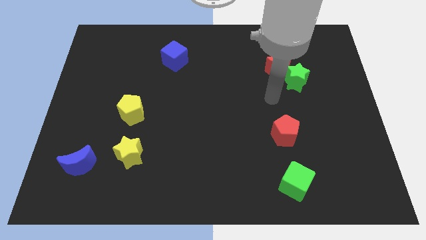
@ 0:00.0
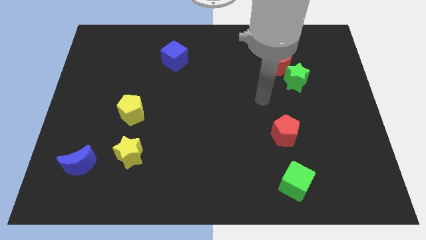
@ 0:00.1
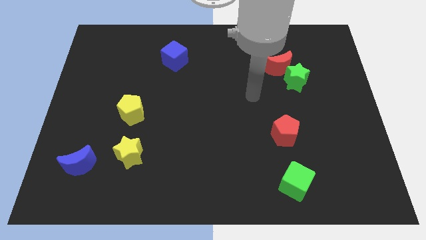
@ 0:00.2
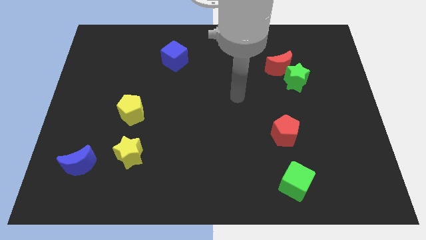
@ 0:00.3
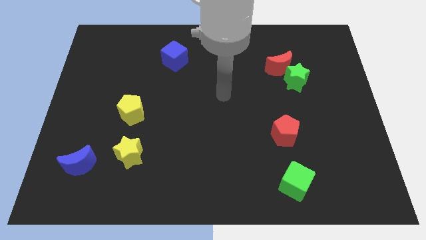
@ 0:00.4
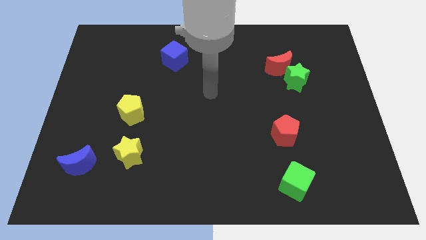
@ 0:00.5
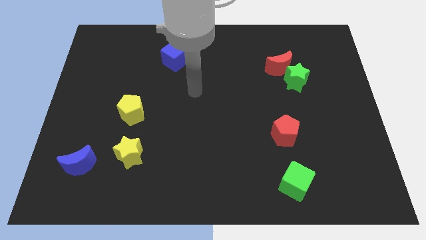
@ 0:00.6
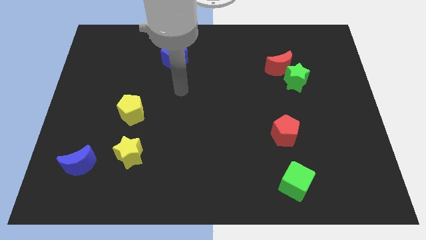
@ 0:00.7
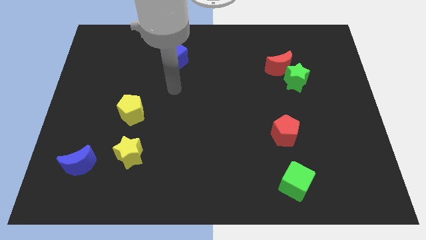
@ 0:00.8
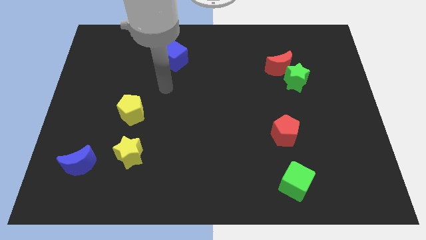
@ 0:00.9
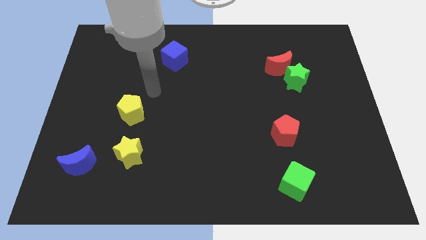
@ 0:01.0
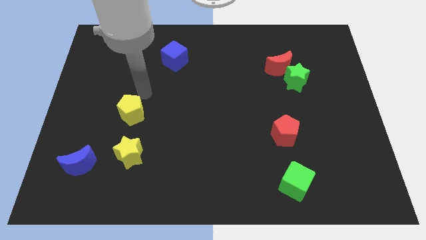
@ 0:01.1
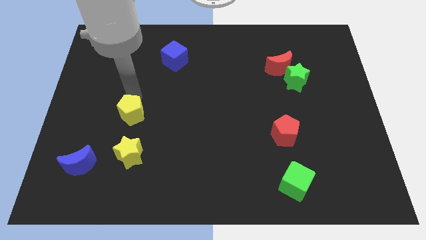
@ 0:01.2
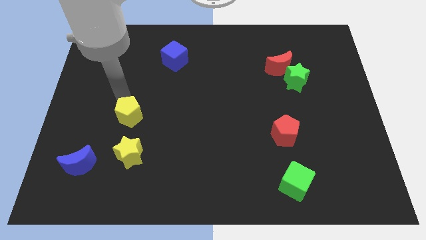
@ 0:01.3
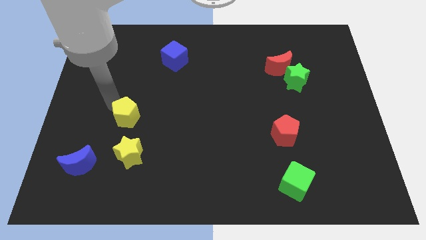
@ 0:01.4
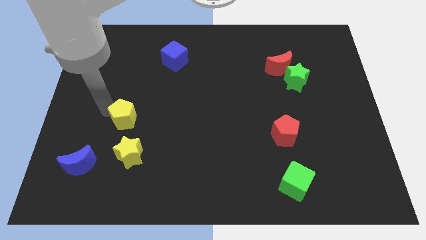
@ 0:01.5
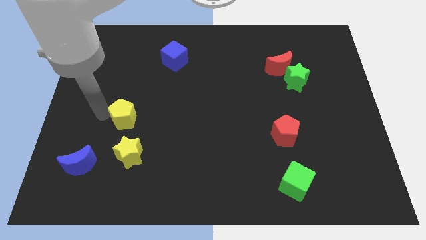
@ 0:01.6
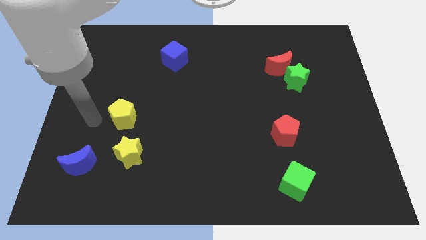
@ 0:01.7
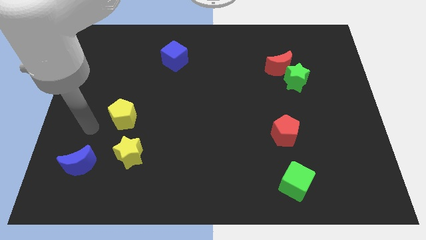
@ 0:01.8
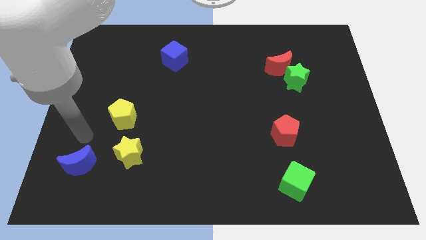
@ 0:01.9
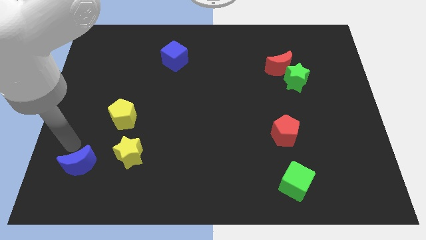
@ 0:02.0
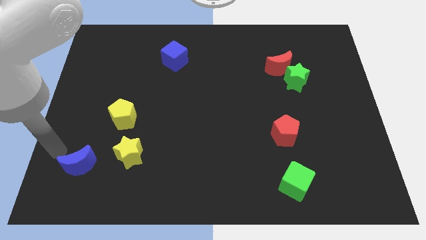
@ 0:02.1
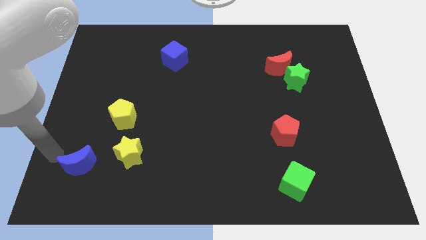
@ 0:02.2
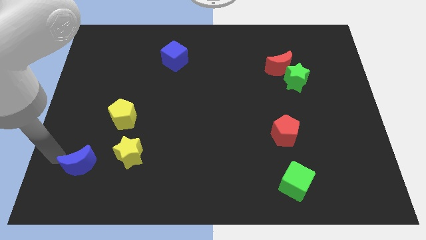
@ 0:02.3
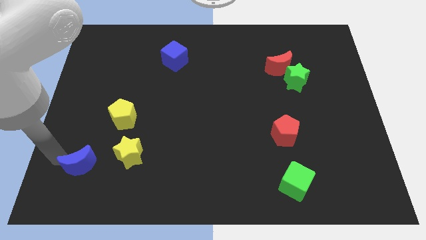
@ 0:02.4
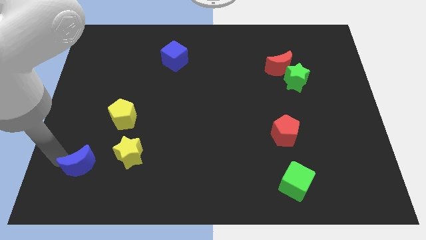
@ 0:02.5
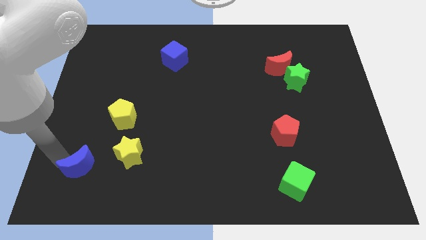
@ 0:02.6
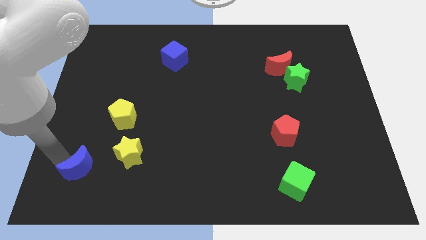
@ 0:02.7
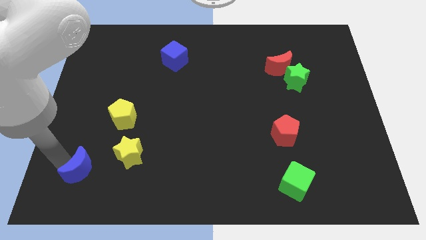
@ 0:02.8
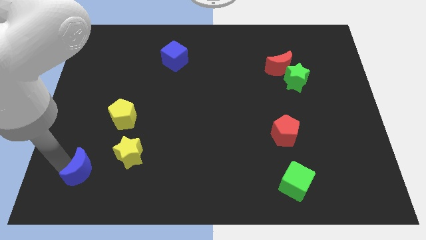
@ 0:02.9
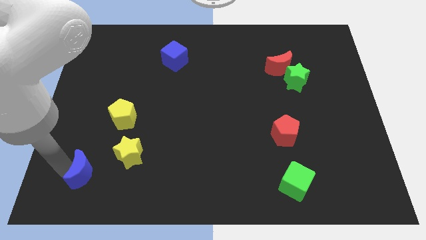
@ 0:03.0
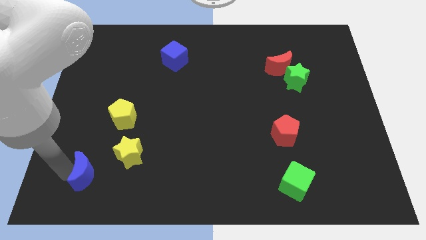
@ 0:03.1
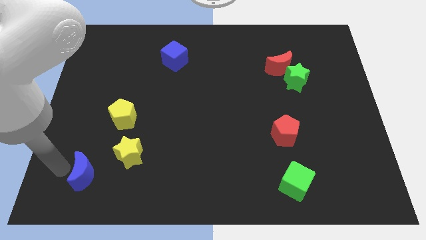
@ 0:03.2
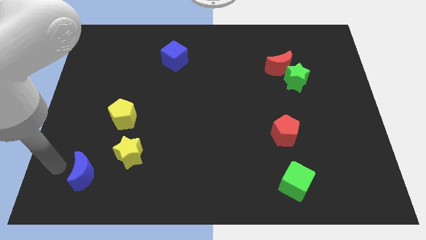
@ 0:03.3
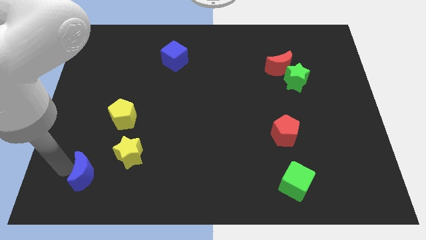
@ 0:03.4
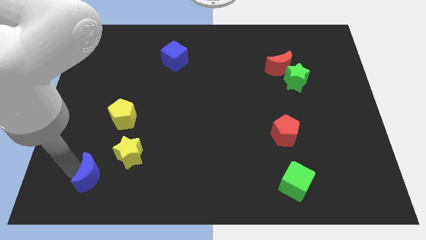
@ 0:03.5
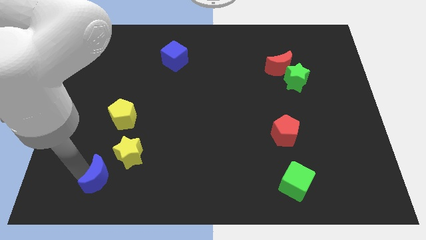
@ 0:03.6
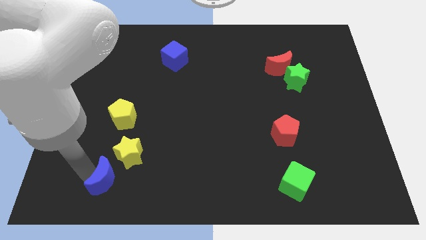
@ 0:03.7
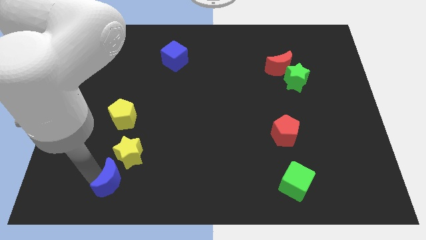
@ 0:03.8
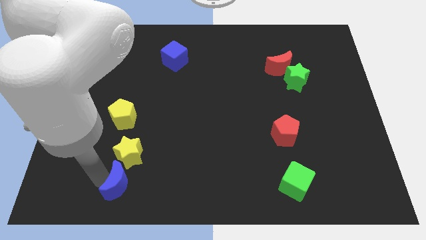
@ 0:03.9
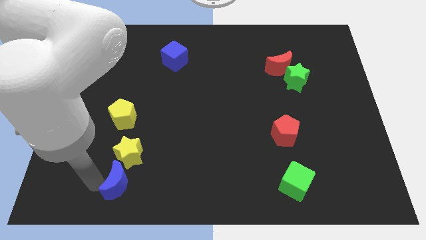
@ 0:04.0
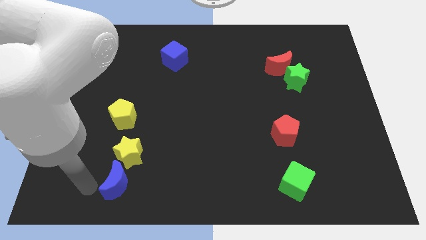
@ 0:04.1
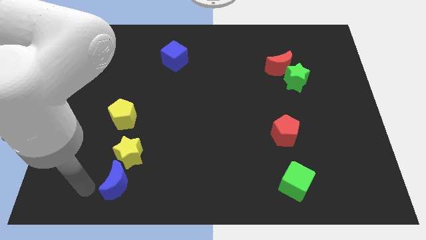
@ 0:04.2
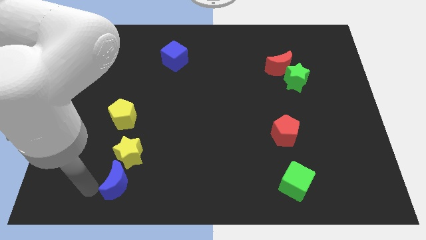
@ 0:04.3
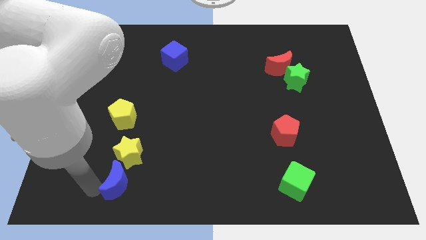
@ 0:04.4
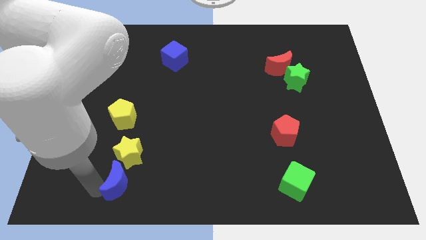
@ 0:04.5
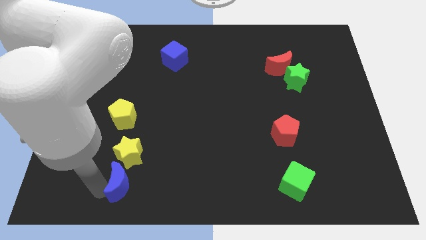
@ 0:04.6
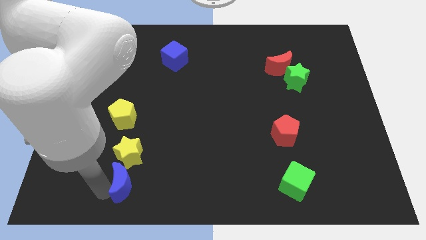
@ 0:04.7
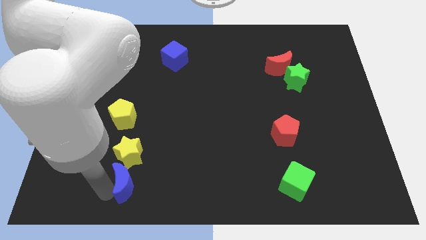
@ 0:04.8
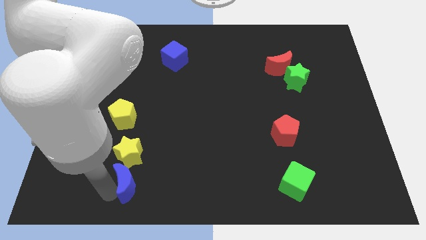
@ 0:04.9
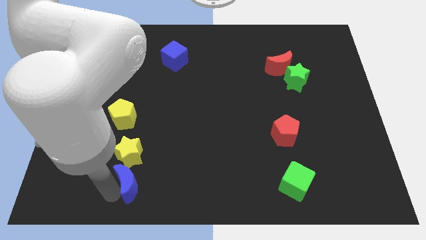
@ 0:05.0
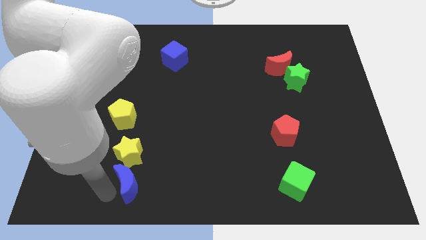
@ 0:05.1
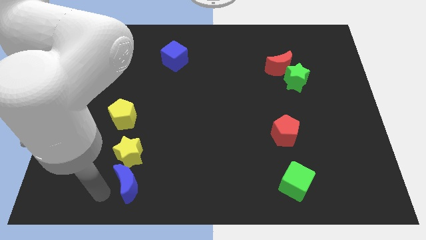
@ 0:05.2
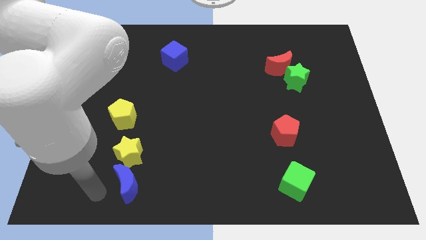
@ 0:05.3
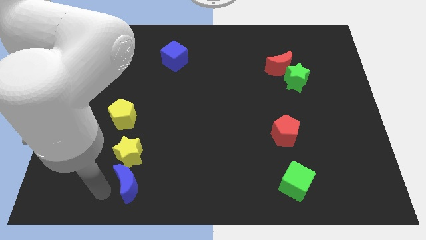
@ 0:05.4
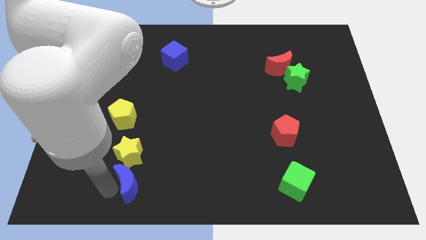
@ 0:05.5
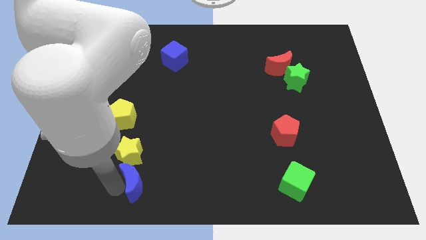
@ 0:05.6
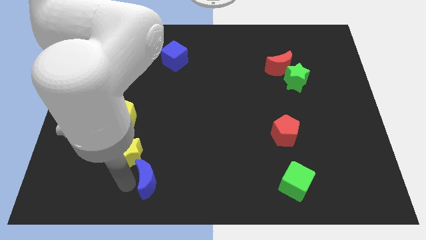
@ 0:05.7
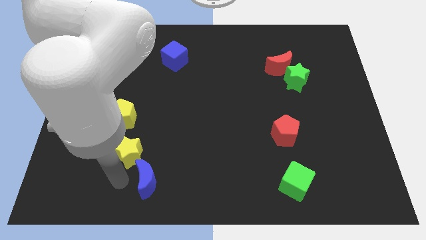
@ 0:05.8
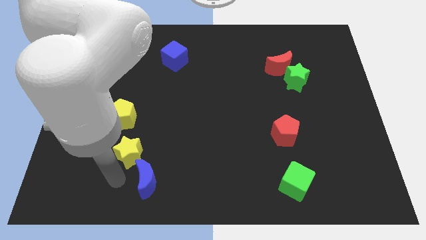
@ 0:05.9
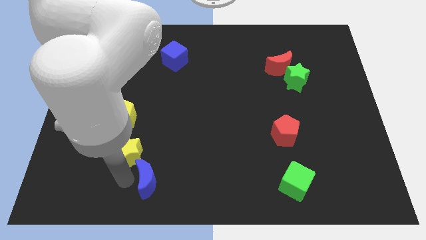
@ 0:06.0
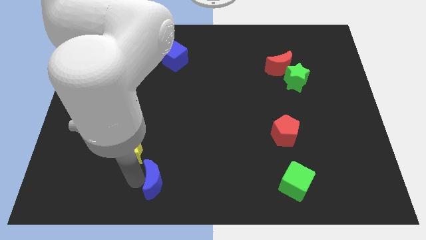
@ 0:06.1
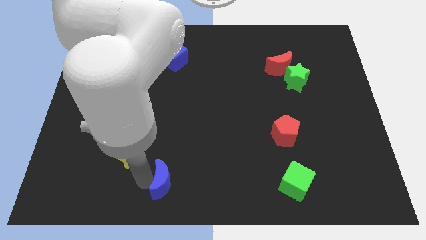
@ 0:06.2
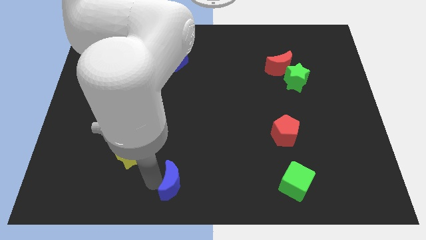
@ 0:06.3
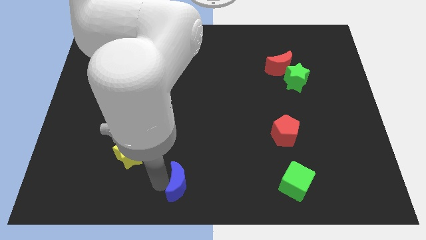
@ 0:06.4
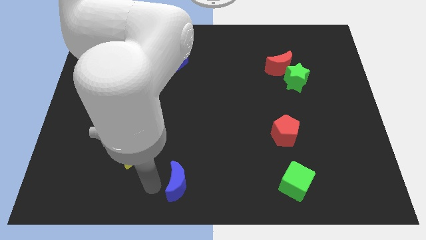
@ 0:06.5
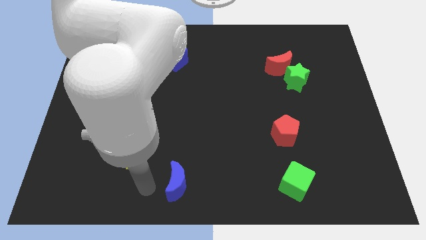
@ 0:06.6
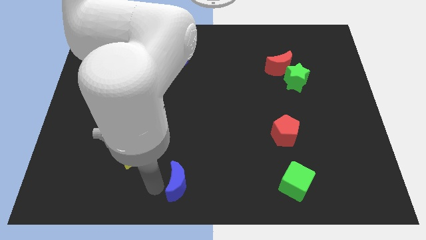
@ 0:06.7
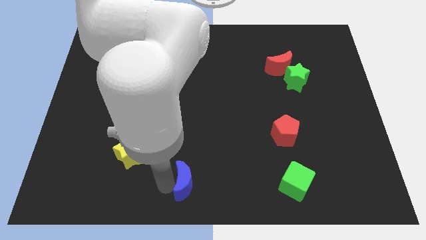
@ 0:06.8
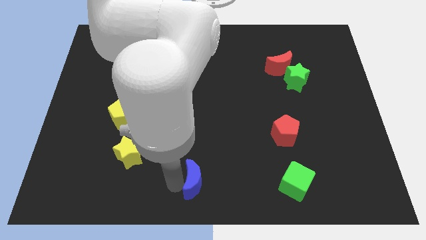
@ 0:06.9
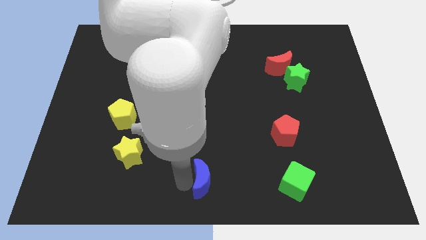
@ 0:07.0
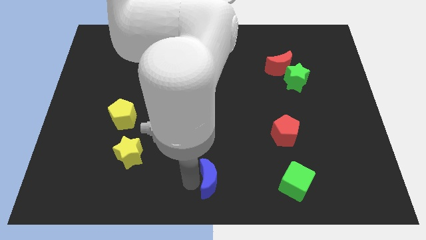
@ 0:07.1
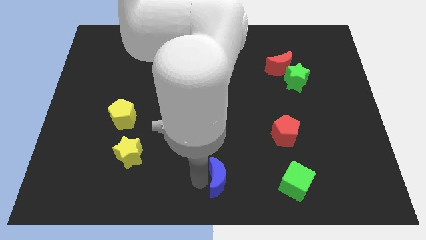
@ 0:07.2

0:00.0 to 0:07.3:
move the blue moon just left of the green cube
